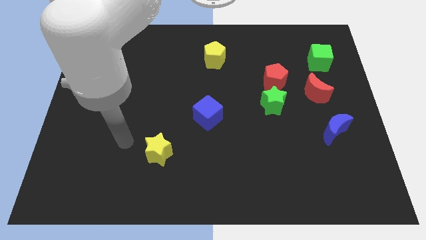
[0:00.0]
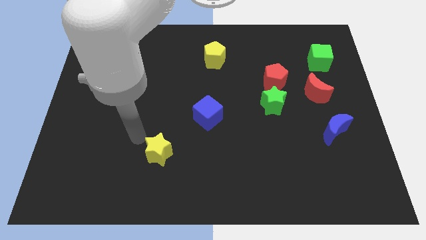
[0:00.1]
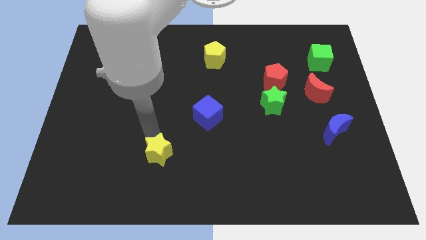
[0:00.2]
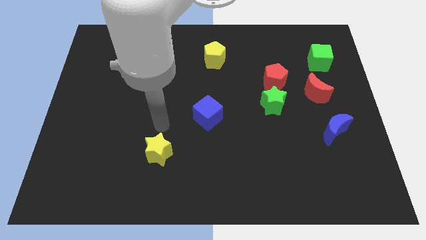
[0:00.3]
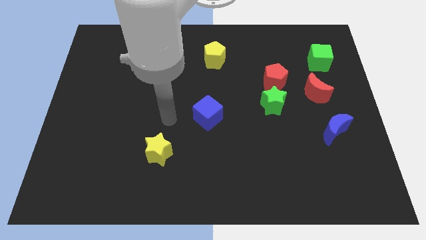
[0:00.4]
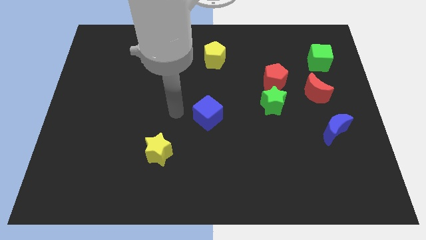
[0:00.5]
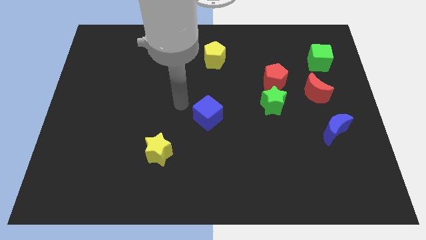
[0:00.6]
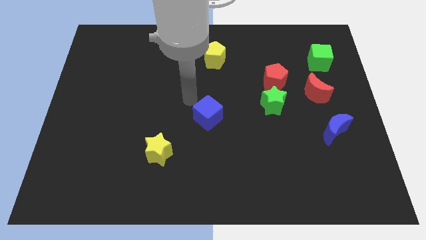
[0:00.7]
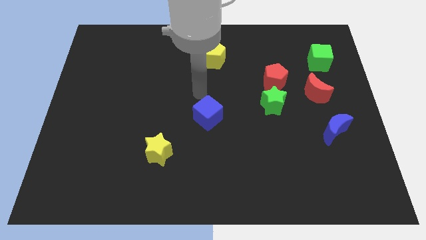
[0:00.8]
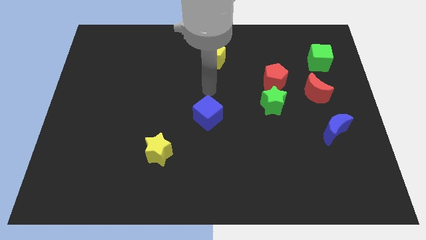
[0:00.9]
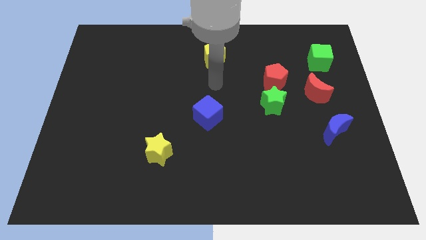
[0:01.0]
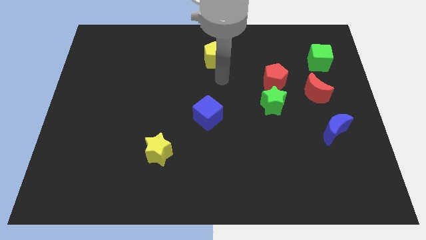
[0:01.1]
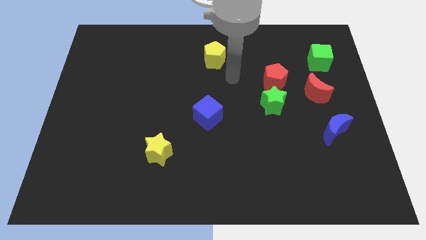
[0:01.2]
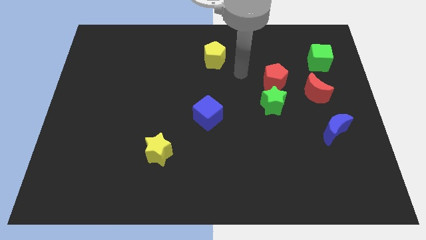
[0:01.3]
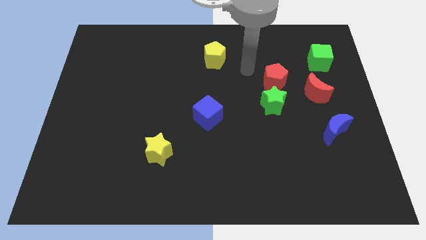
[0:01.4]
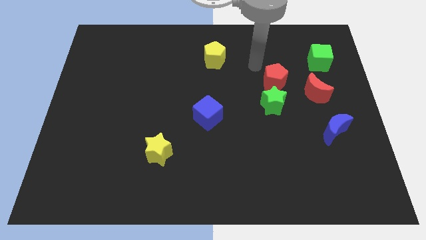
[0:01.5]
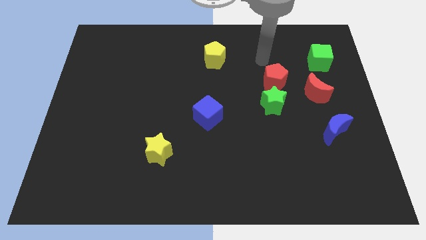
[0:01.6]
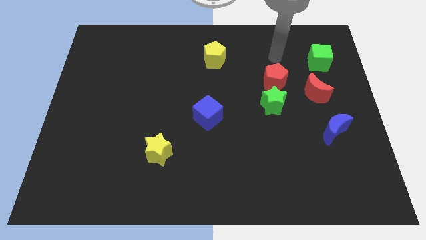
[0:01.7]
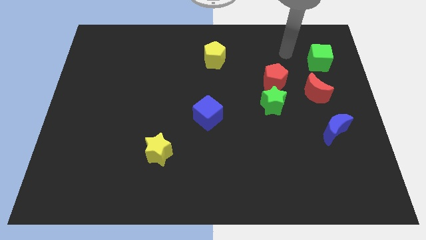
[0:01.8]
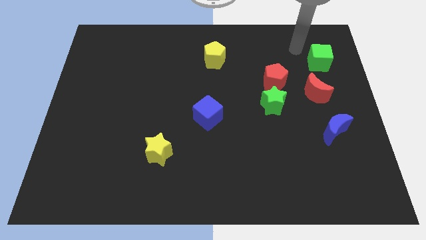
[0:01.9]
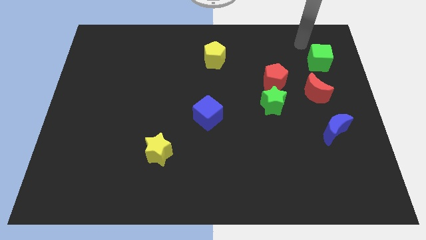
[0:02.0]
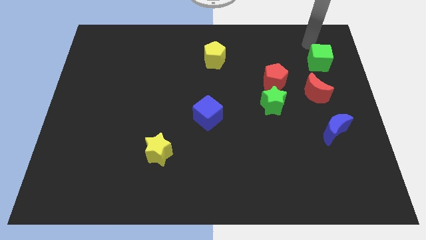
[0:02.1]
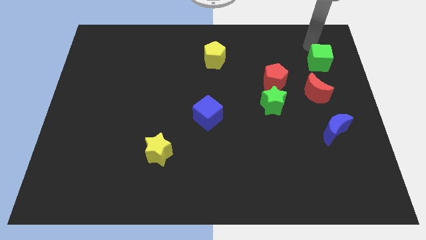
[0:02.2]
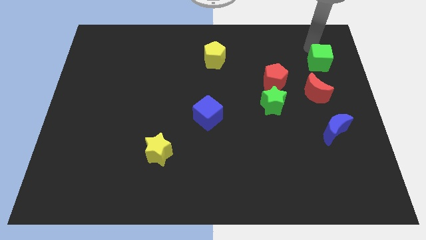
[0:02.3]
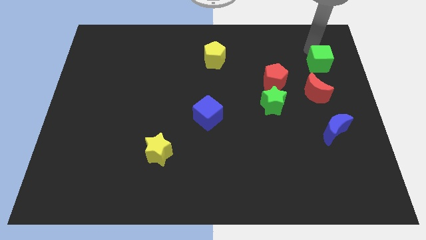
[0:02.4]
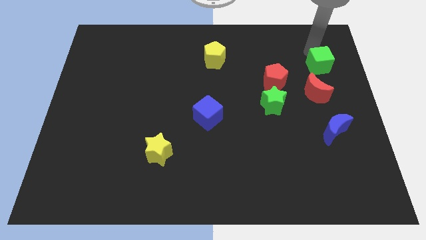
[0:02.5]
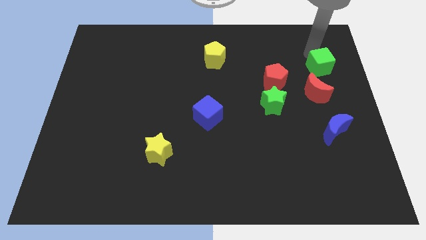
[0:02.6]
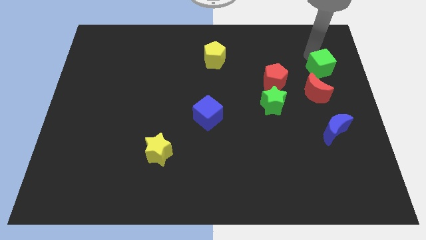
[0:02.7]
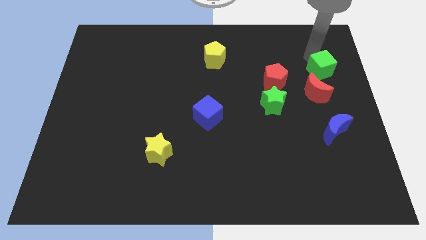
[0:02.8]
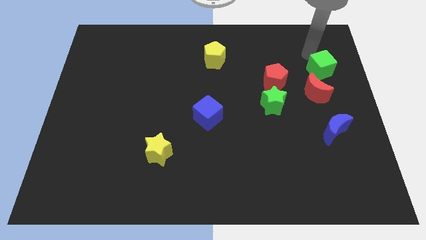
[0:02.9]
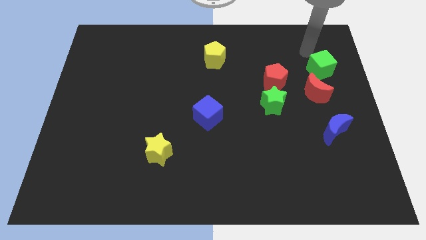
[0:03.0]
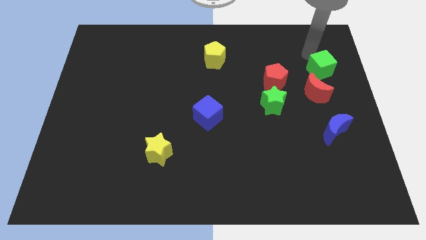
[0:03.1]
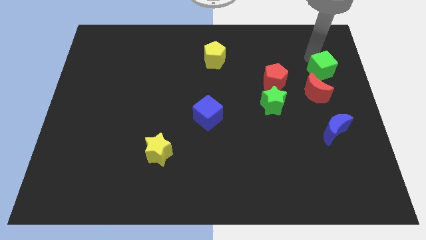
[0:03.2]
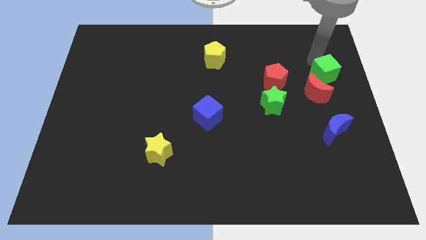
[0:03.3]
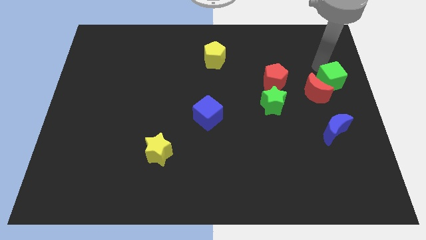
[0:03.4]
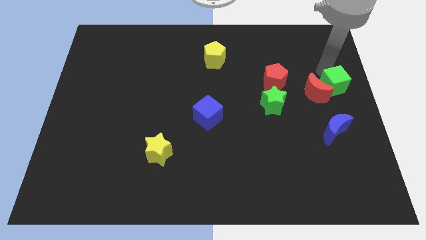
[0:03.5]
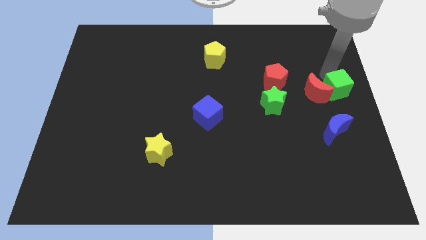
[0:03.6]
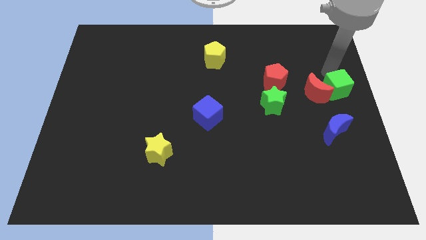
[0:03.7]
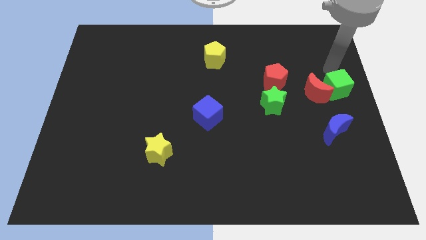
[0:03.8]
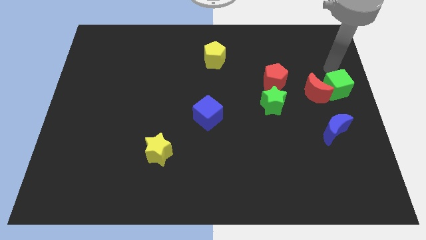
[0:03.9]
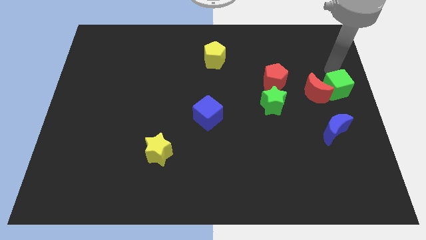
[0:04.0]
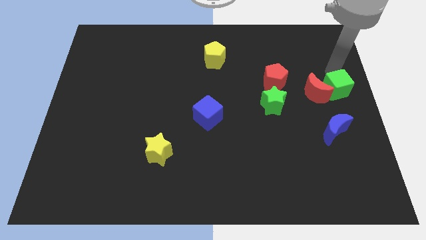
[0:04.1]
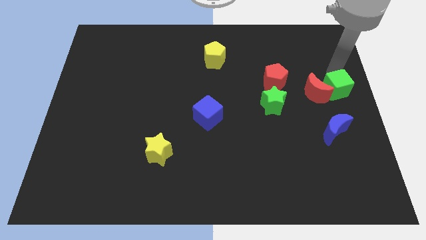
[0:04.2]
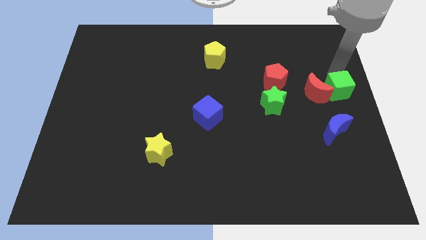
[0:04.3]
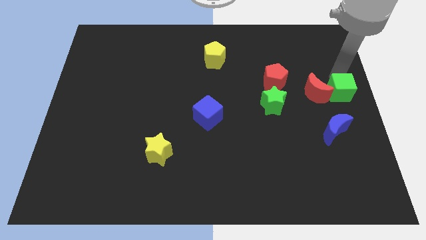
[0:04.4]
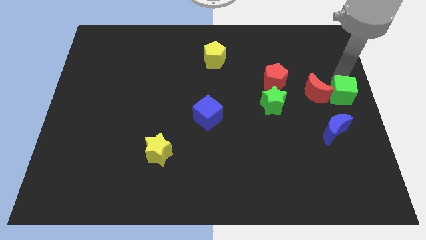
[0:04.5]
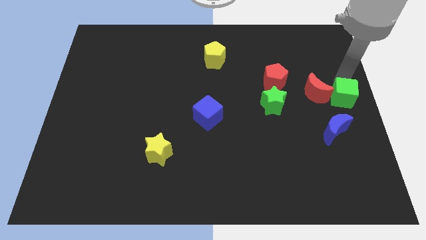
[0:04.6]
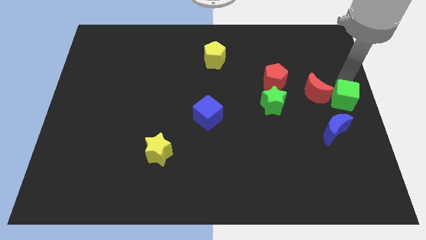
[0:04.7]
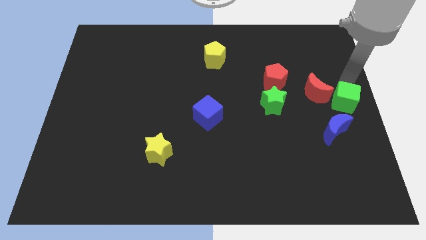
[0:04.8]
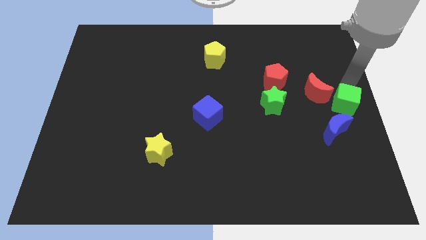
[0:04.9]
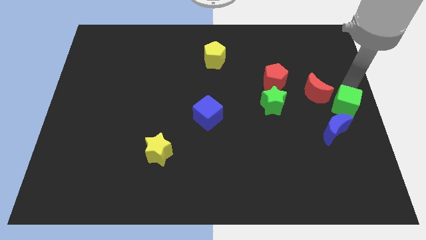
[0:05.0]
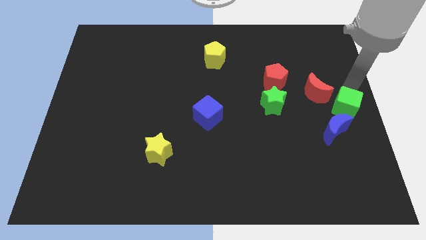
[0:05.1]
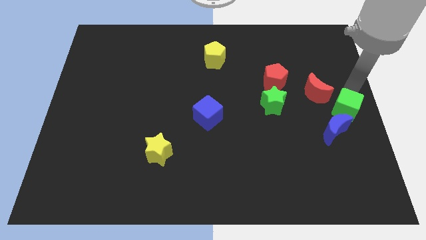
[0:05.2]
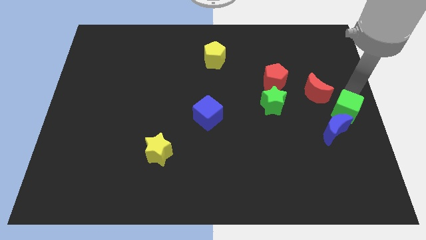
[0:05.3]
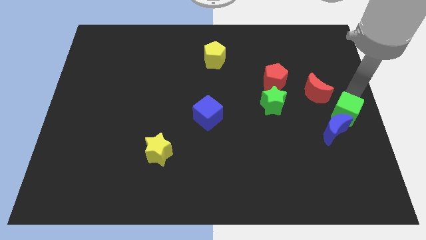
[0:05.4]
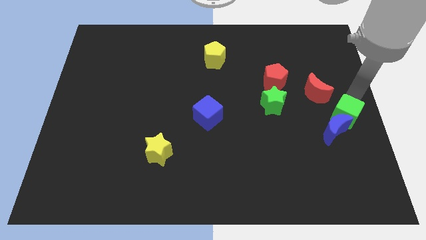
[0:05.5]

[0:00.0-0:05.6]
move the green cube to the blue moon

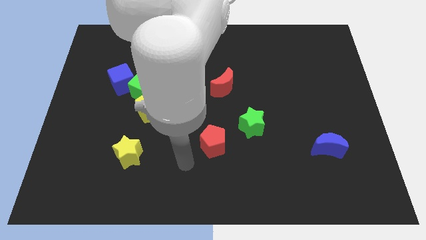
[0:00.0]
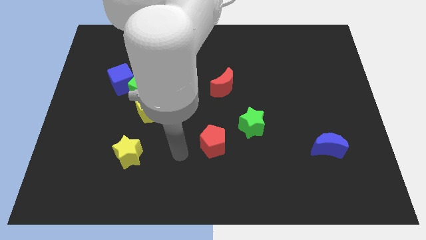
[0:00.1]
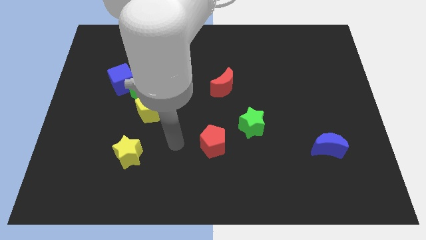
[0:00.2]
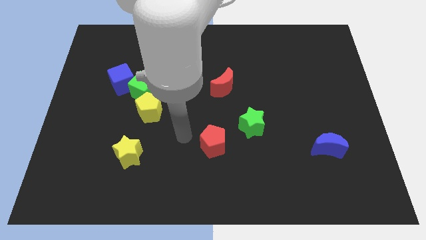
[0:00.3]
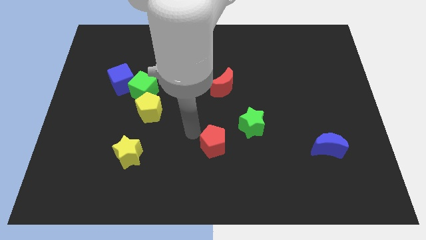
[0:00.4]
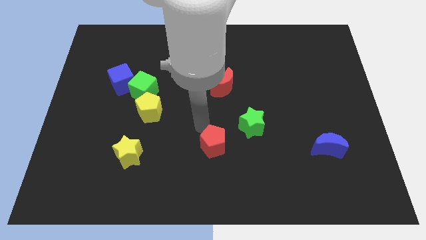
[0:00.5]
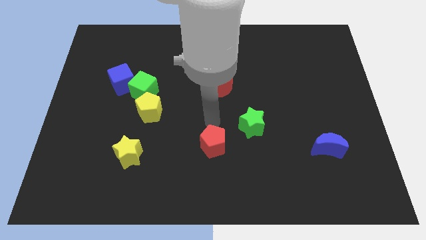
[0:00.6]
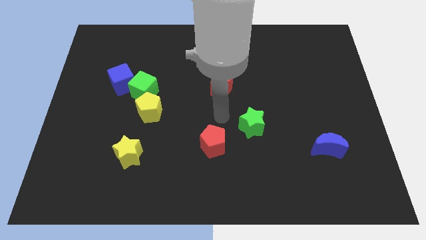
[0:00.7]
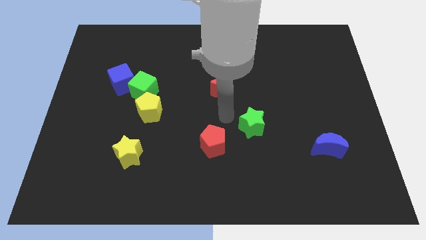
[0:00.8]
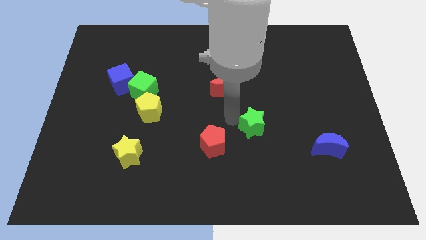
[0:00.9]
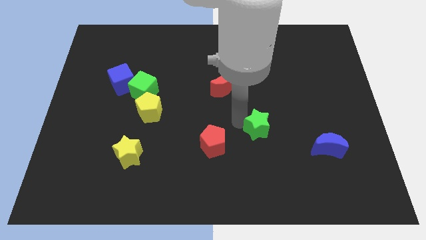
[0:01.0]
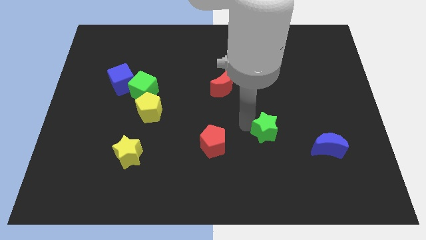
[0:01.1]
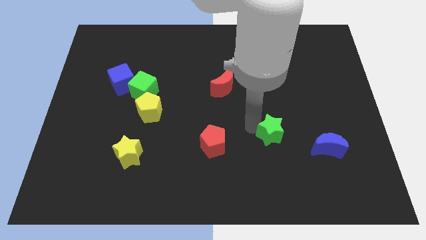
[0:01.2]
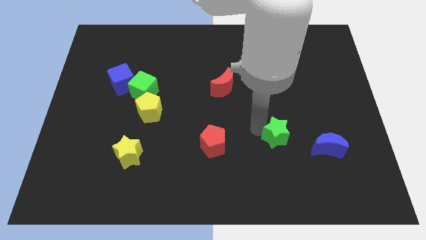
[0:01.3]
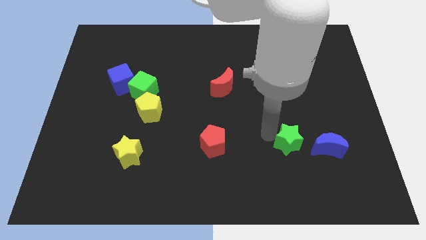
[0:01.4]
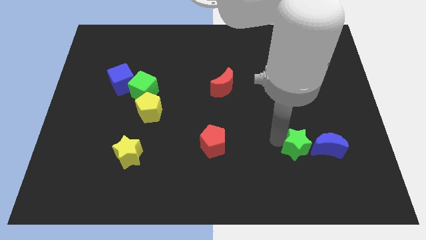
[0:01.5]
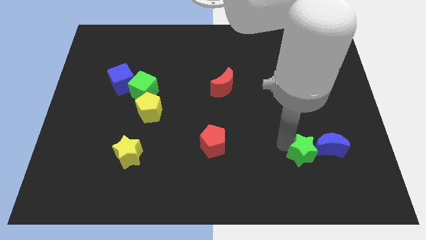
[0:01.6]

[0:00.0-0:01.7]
slide the green star to the blue moon
